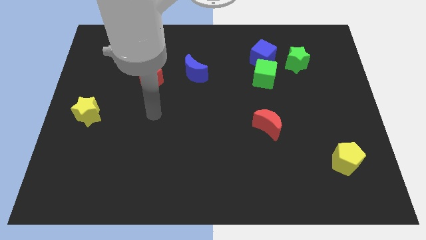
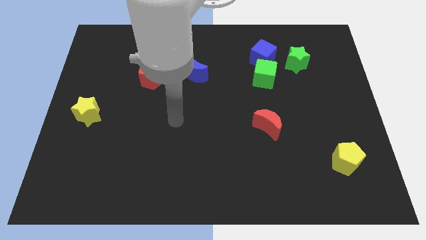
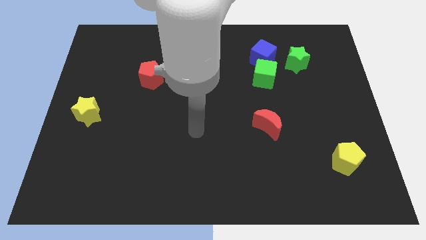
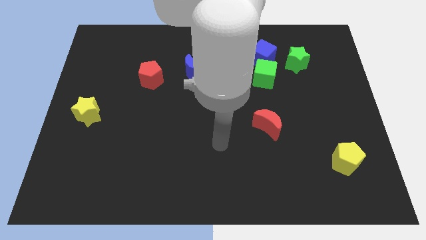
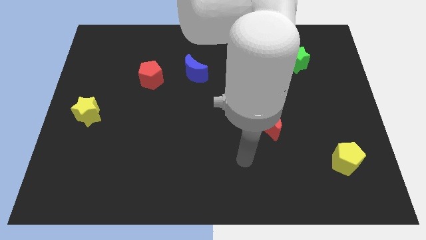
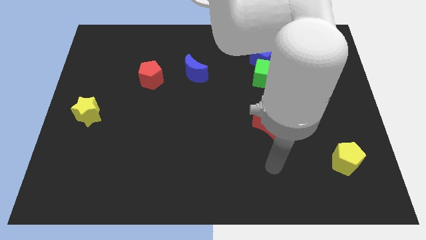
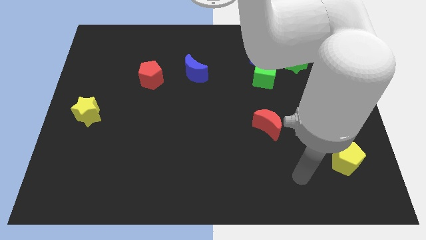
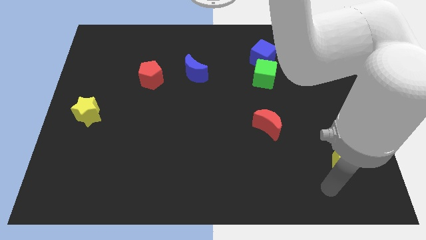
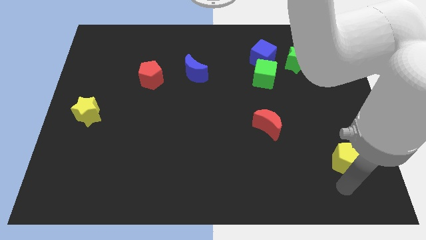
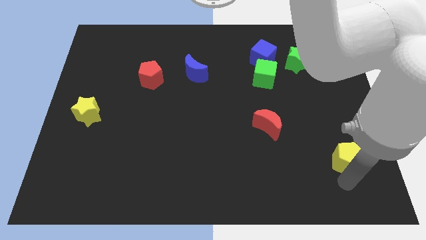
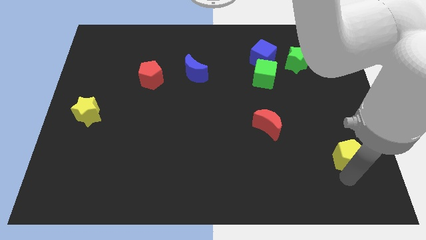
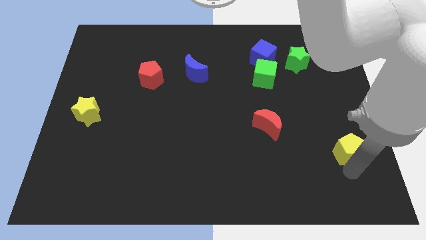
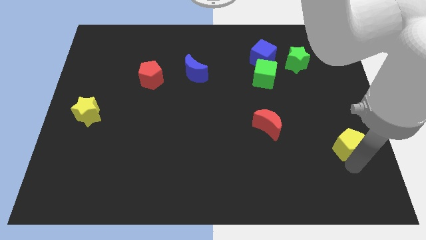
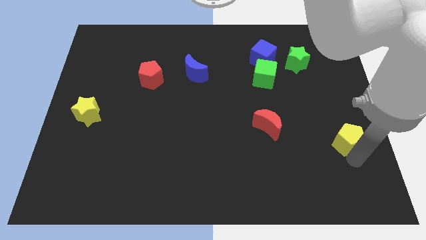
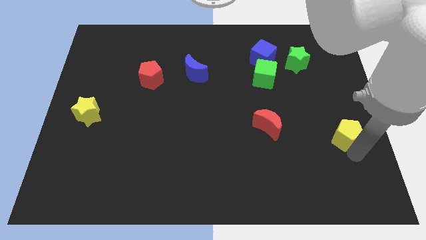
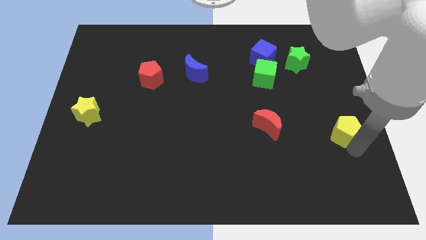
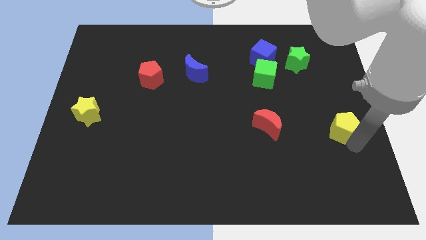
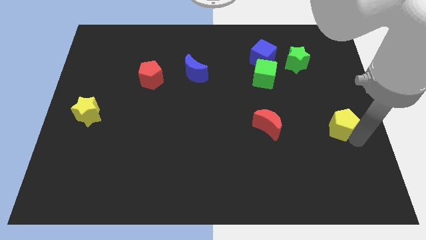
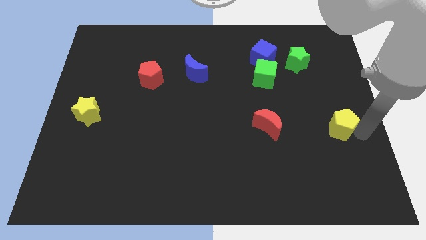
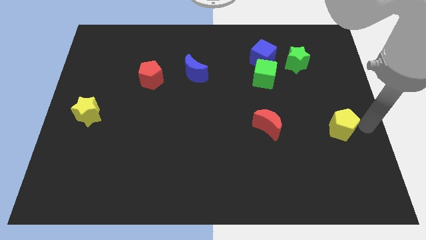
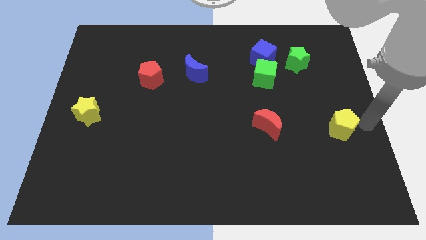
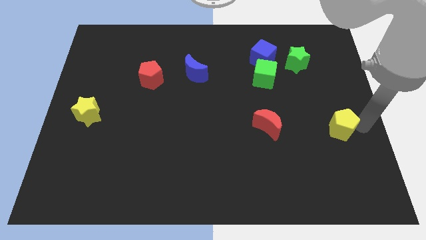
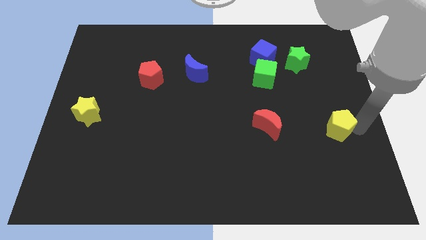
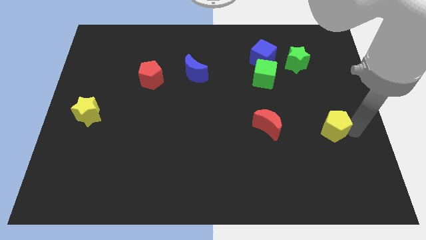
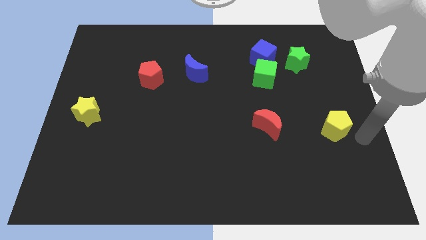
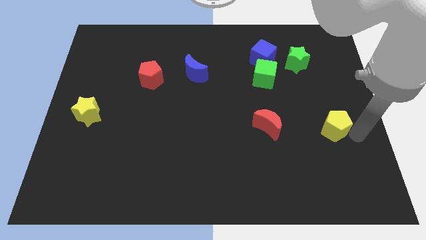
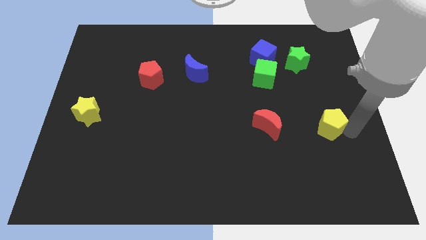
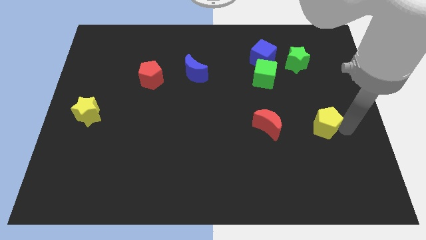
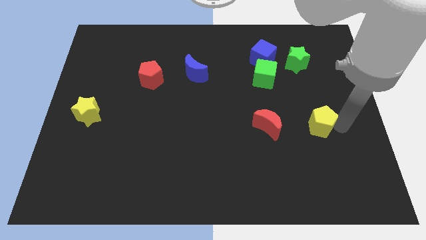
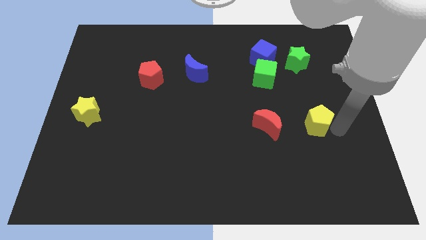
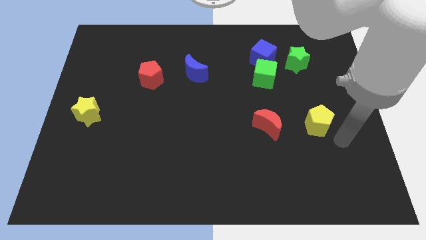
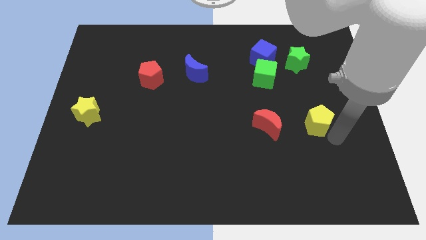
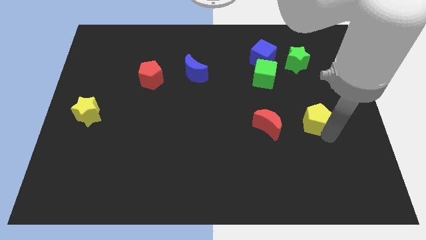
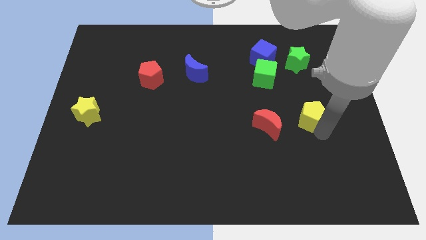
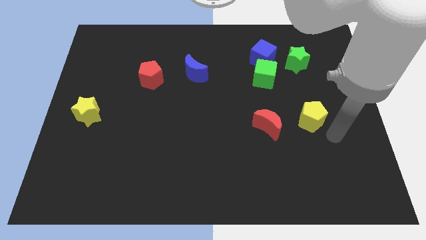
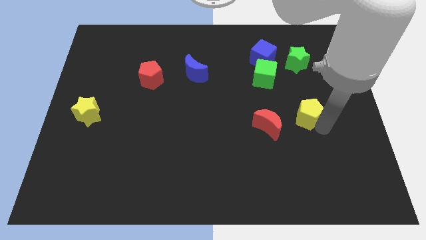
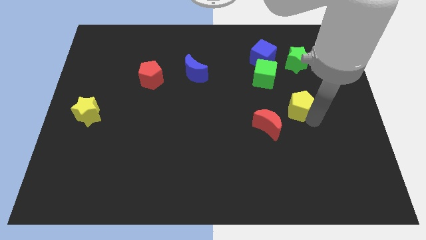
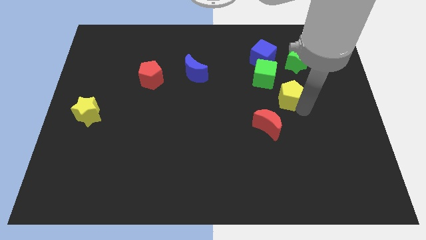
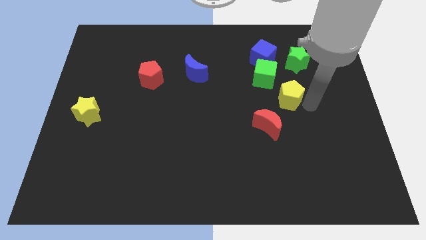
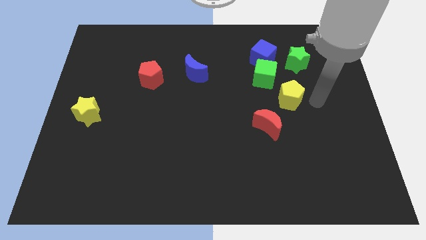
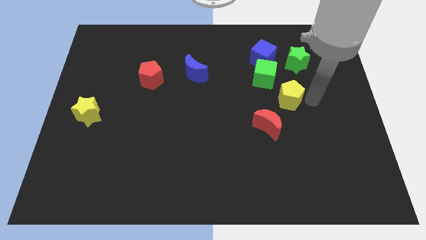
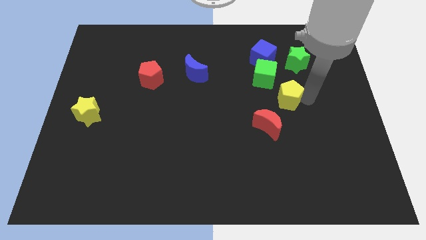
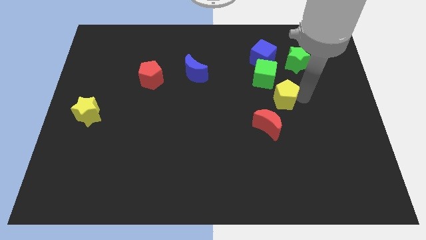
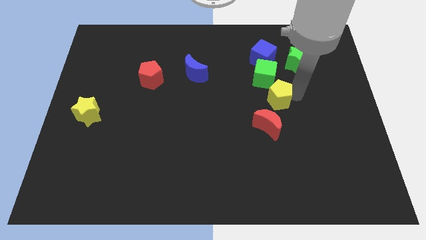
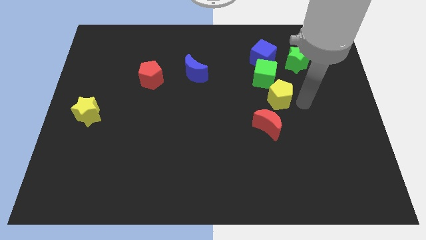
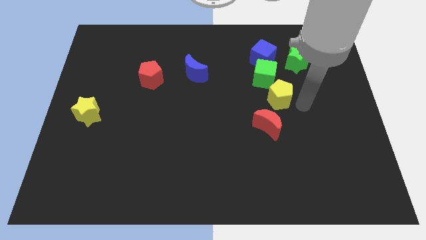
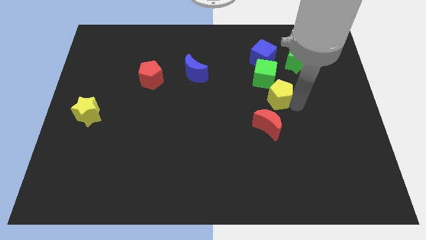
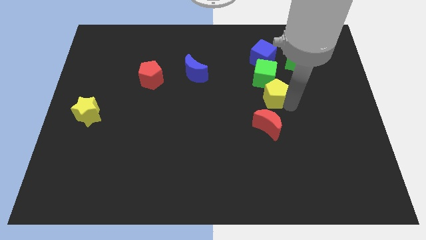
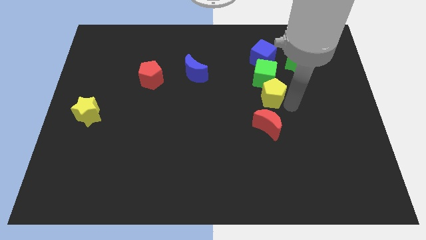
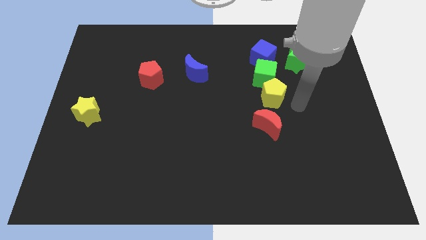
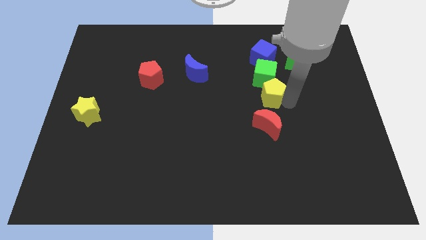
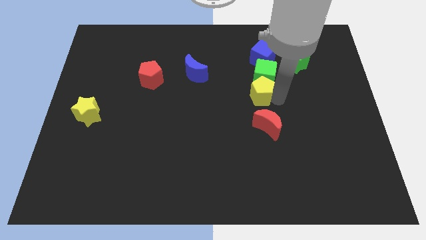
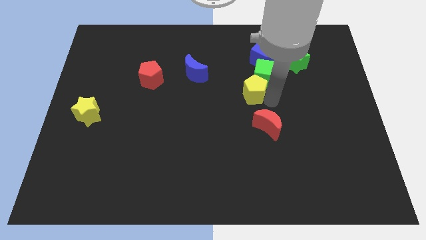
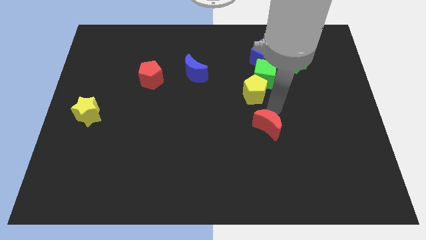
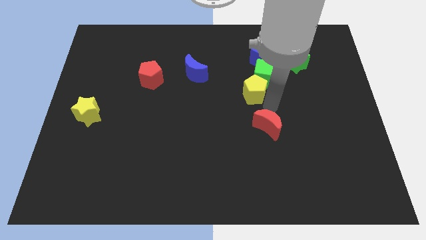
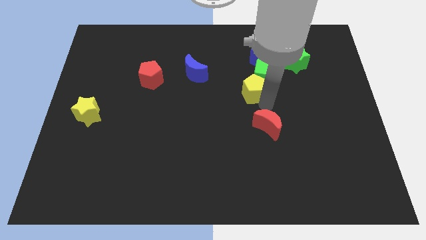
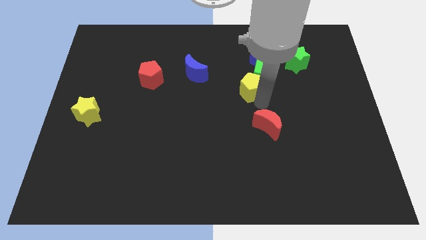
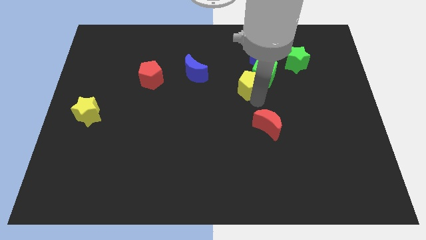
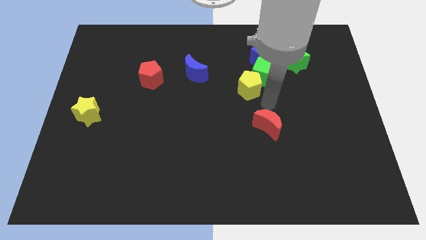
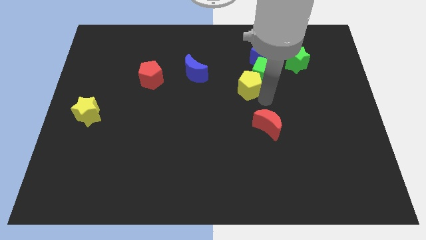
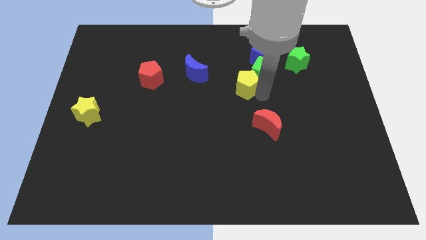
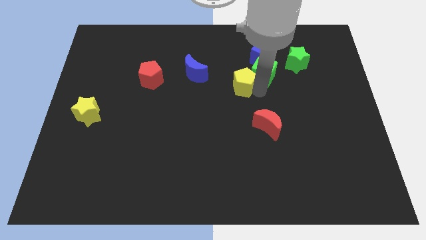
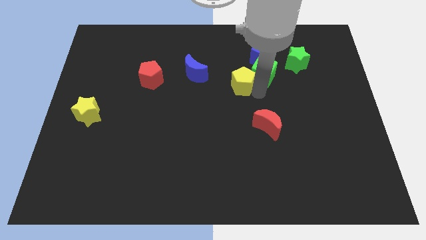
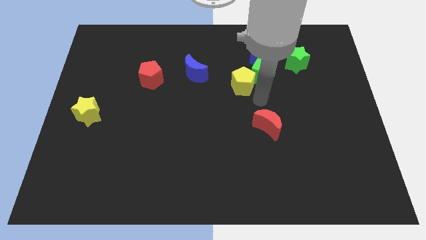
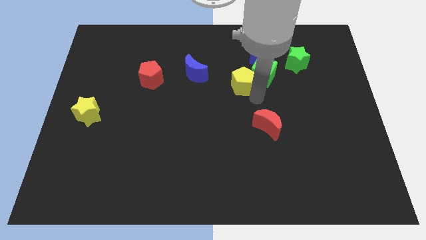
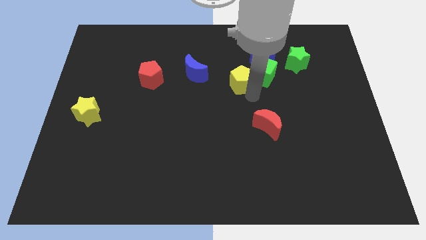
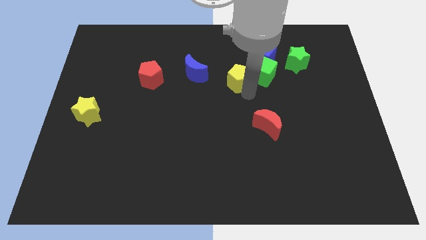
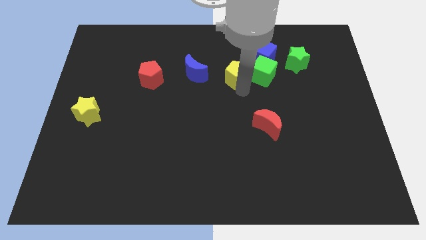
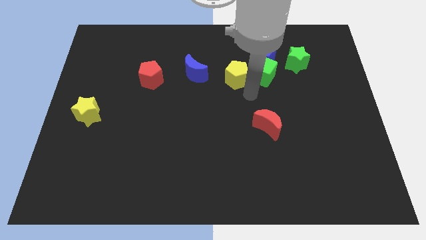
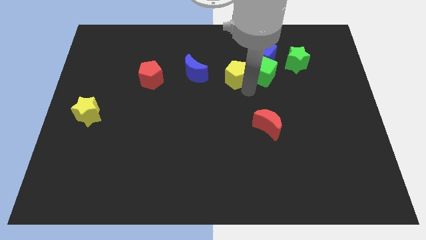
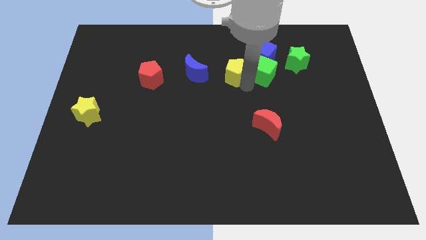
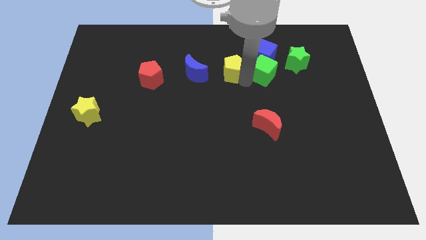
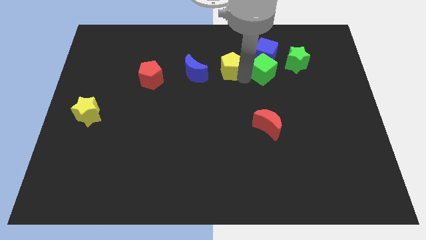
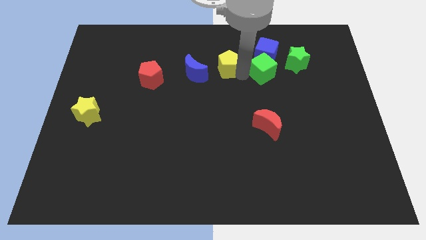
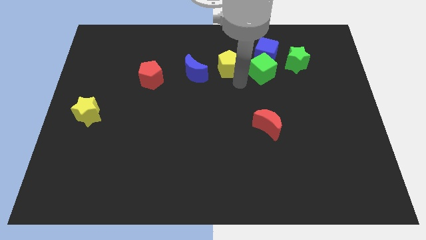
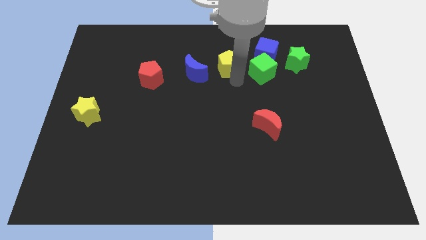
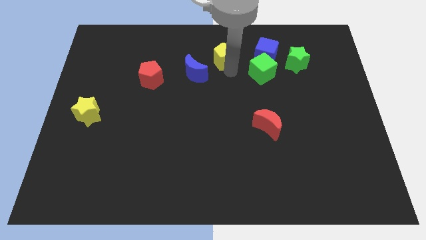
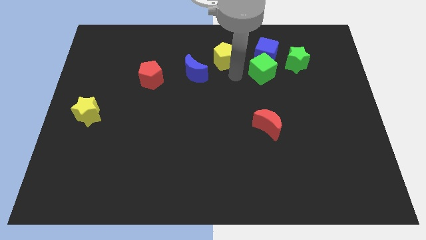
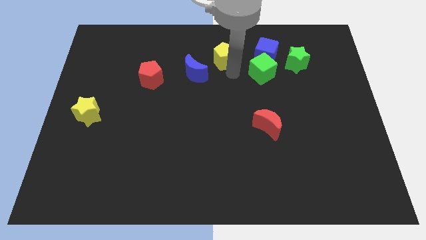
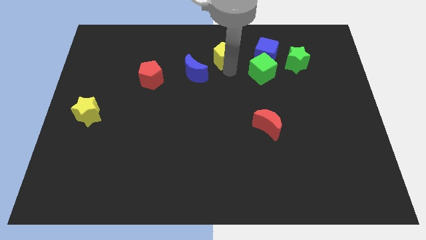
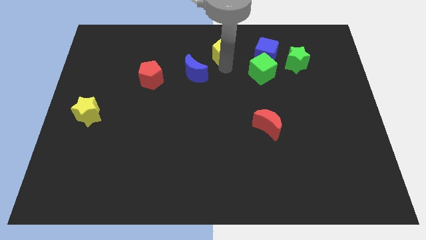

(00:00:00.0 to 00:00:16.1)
put the yellow pentagon to the towards your base
